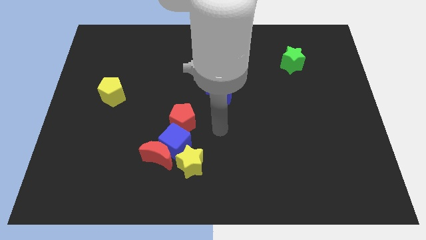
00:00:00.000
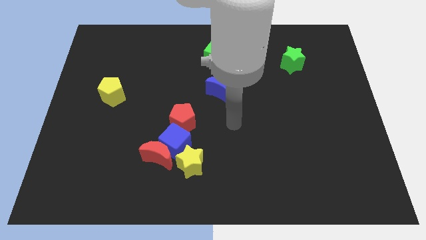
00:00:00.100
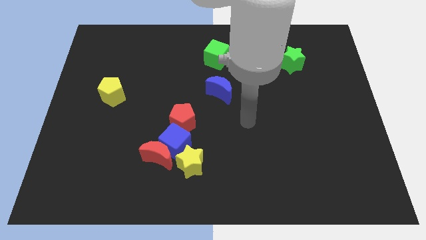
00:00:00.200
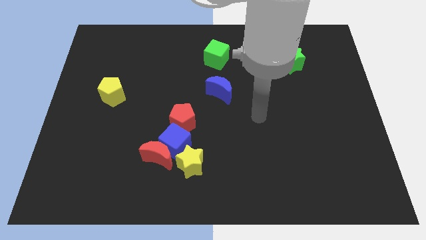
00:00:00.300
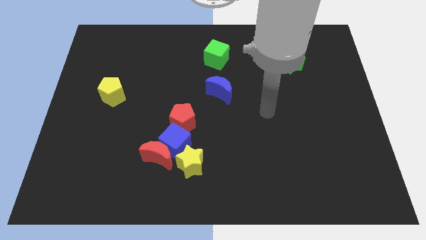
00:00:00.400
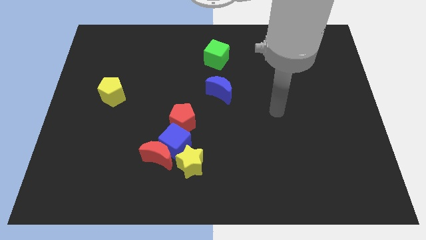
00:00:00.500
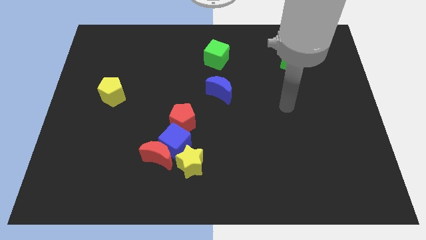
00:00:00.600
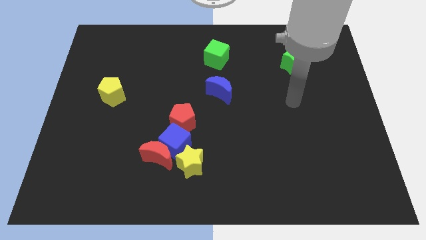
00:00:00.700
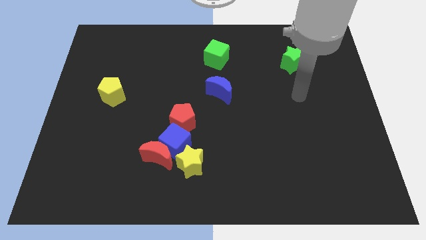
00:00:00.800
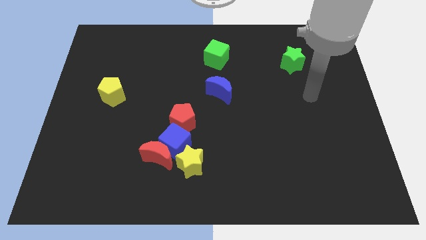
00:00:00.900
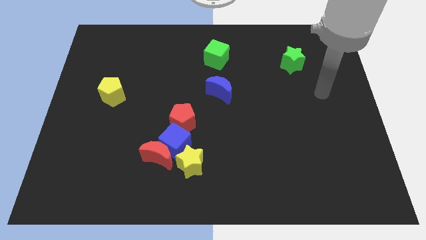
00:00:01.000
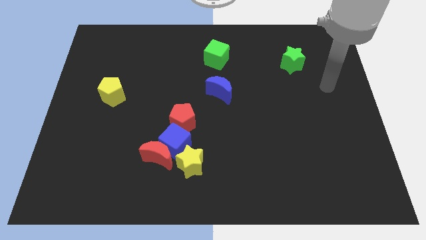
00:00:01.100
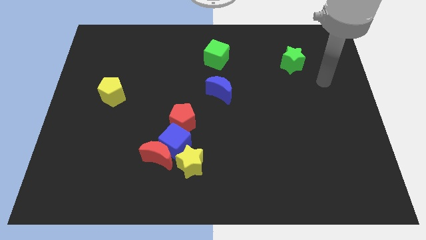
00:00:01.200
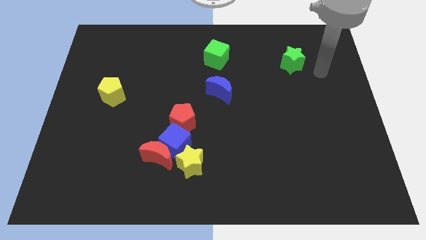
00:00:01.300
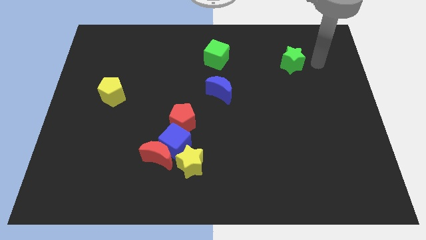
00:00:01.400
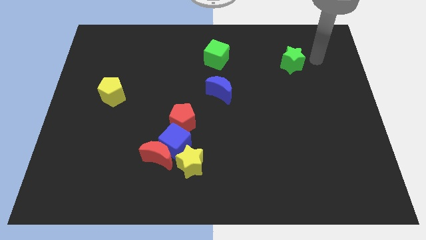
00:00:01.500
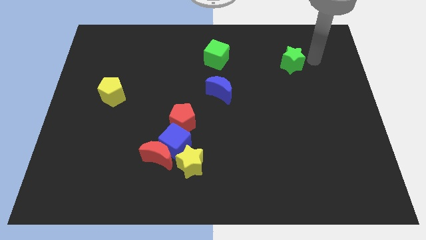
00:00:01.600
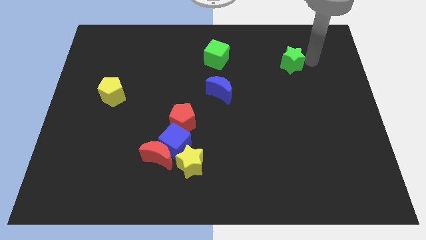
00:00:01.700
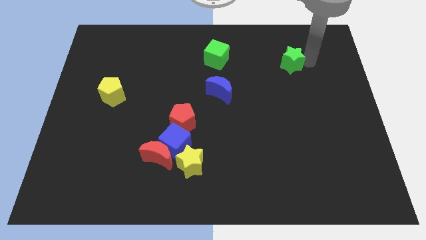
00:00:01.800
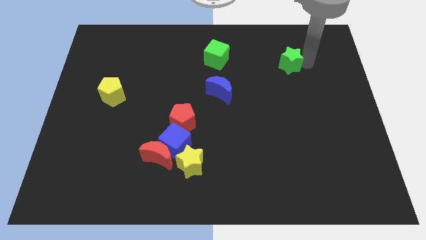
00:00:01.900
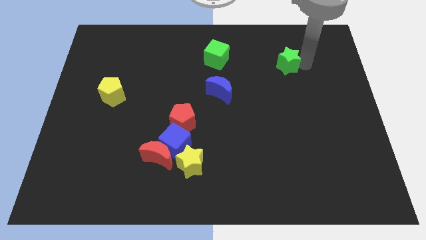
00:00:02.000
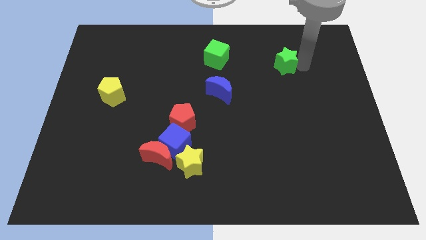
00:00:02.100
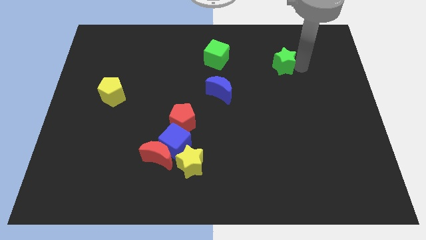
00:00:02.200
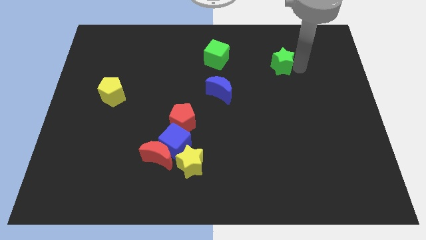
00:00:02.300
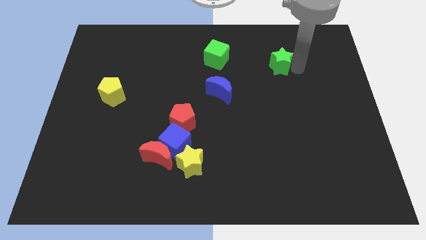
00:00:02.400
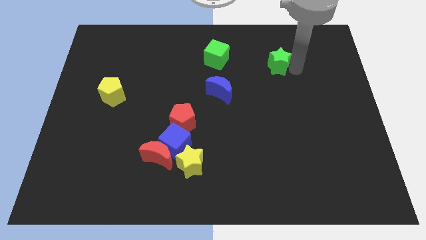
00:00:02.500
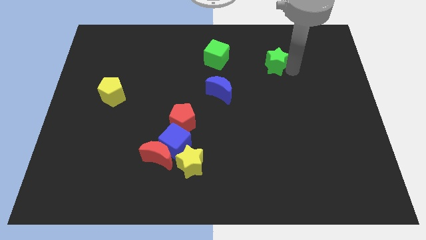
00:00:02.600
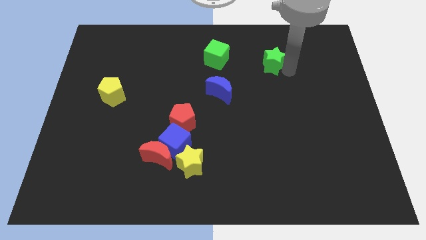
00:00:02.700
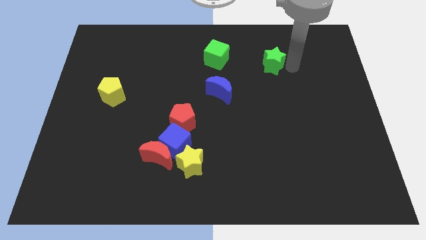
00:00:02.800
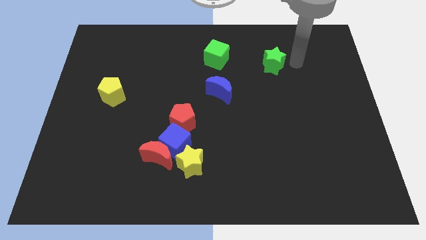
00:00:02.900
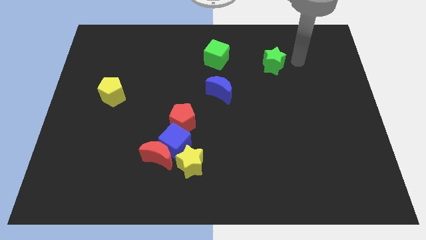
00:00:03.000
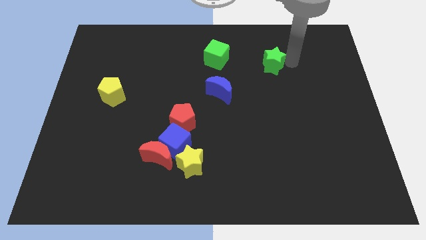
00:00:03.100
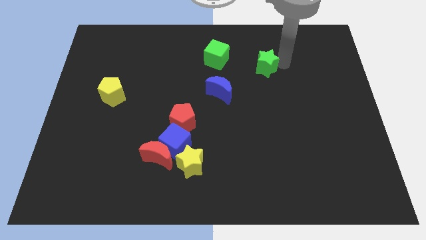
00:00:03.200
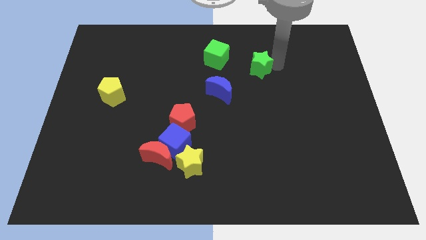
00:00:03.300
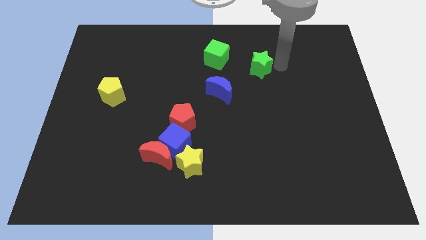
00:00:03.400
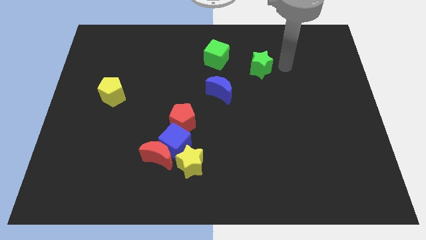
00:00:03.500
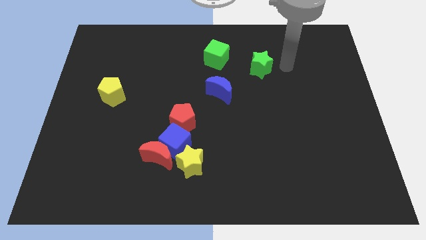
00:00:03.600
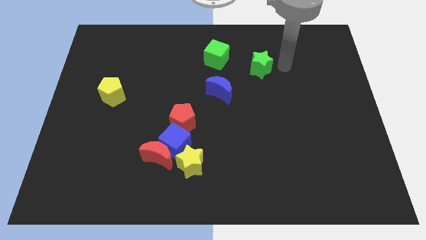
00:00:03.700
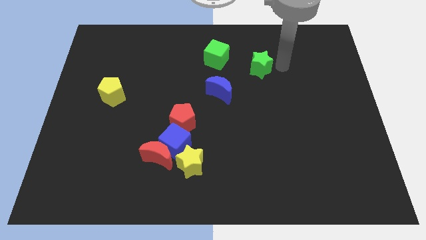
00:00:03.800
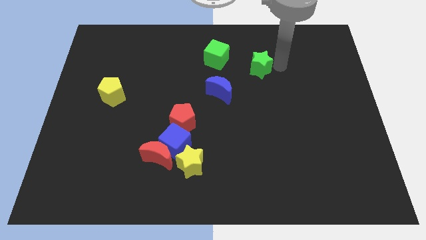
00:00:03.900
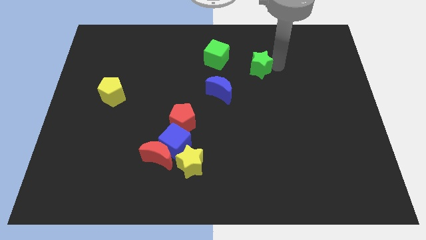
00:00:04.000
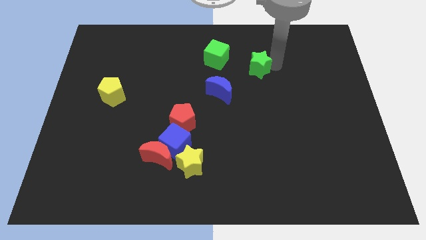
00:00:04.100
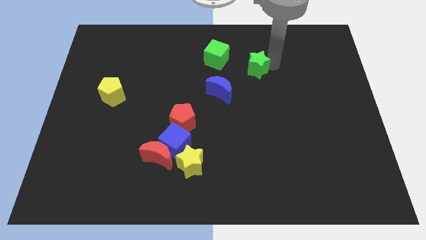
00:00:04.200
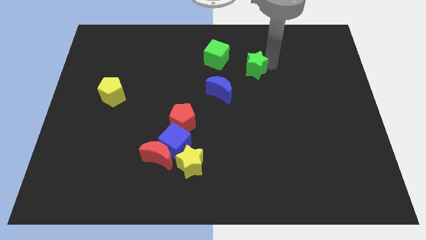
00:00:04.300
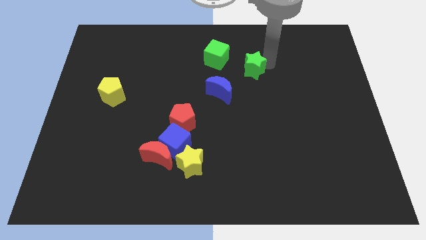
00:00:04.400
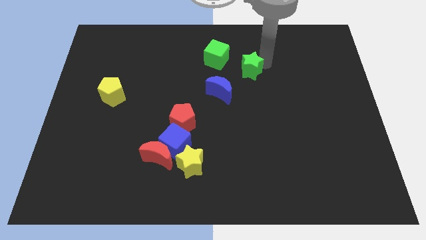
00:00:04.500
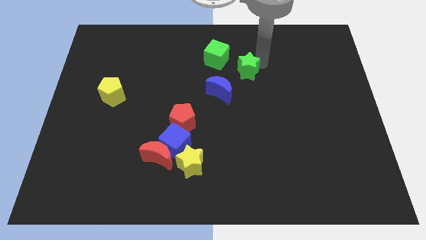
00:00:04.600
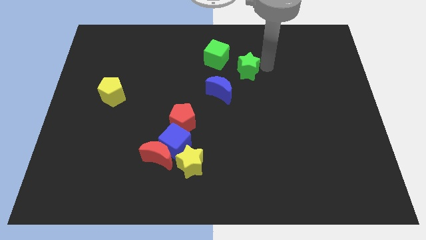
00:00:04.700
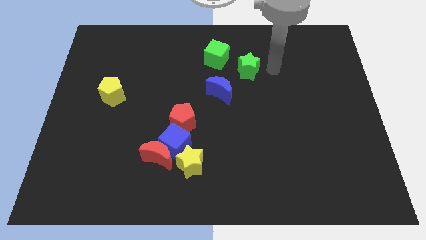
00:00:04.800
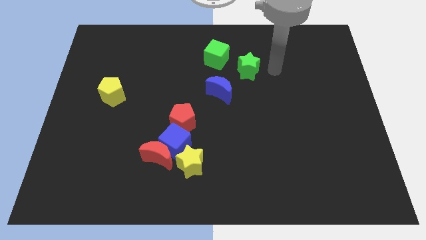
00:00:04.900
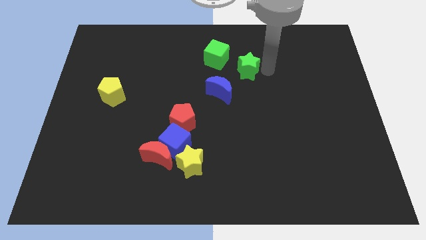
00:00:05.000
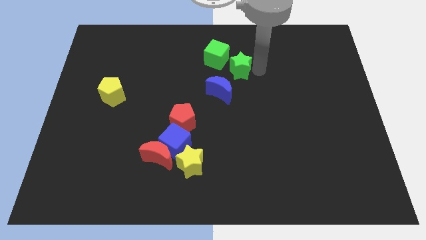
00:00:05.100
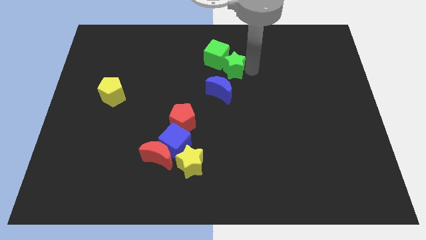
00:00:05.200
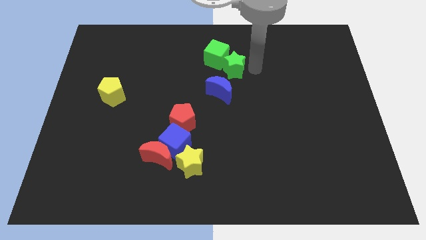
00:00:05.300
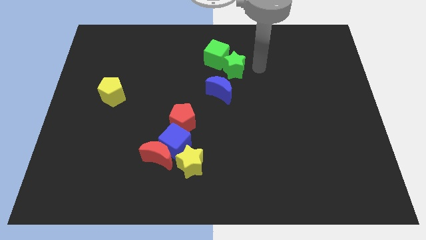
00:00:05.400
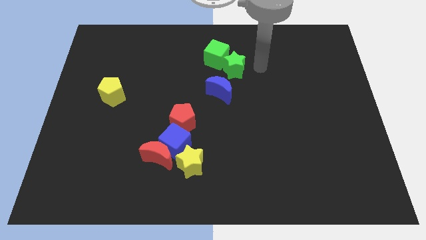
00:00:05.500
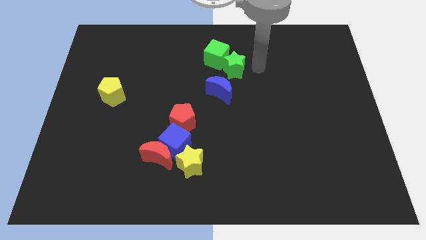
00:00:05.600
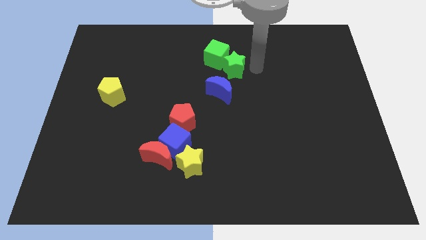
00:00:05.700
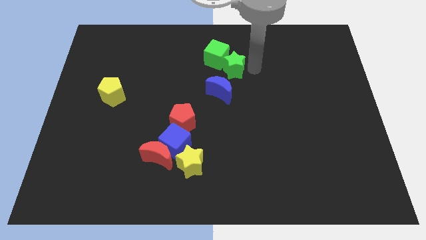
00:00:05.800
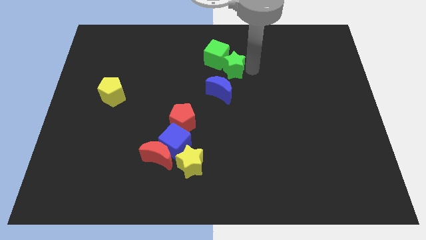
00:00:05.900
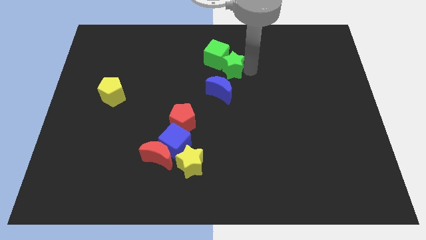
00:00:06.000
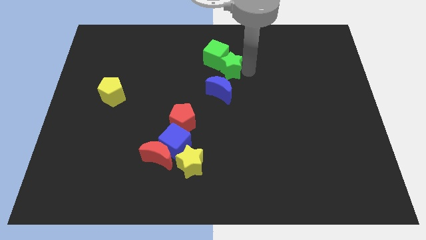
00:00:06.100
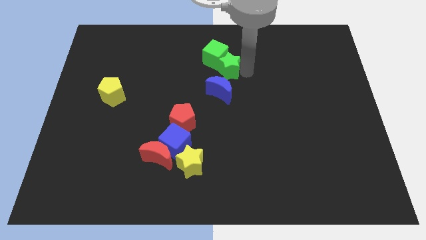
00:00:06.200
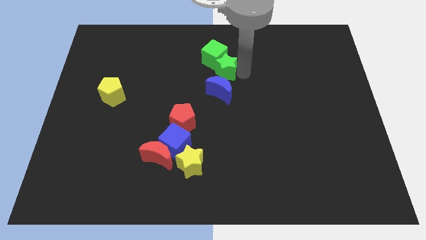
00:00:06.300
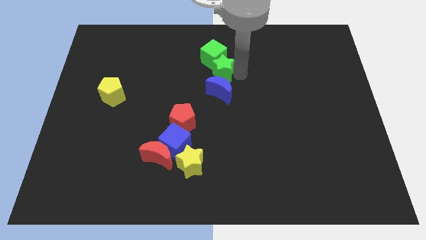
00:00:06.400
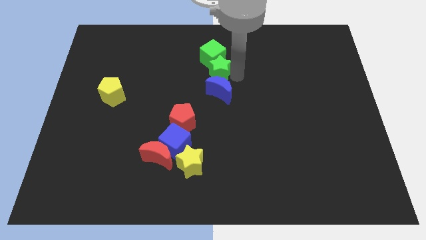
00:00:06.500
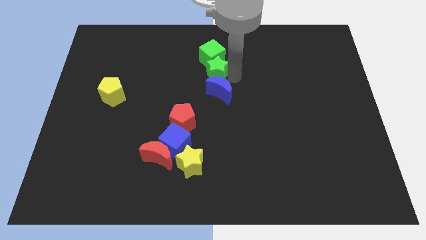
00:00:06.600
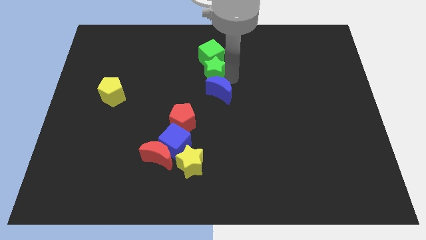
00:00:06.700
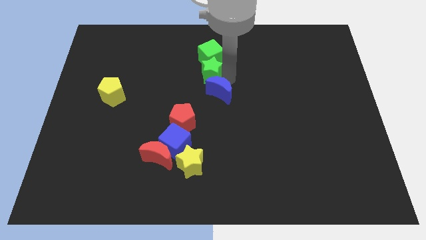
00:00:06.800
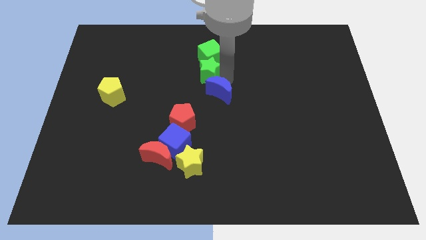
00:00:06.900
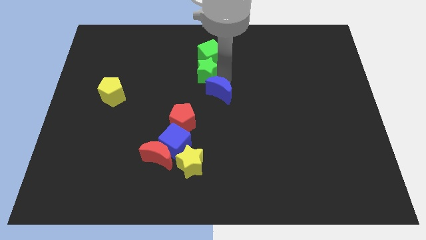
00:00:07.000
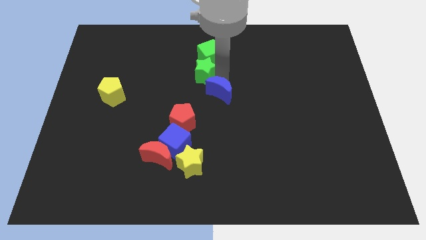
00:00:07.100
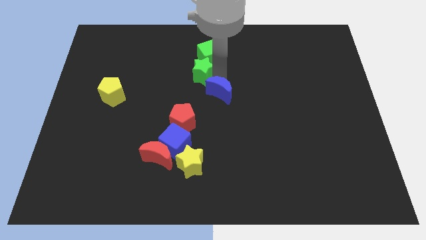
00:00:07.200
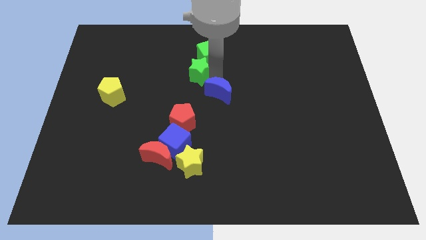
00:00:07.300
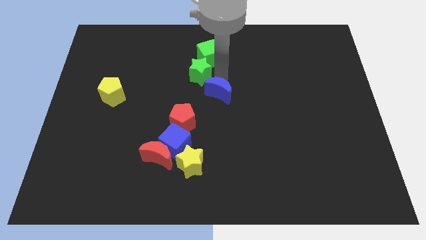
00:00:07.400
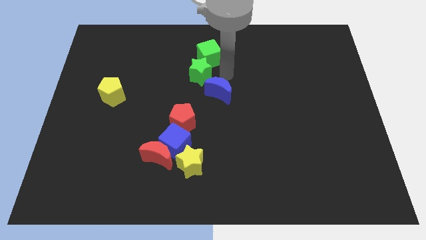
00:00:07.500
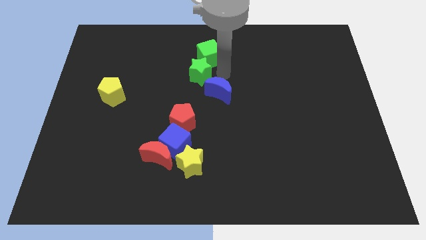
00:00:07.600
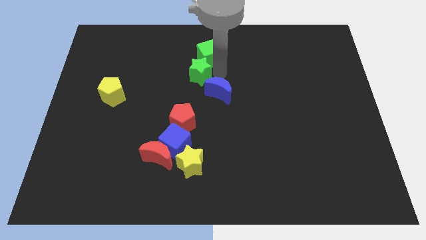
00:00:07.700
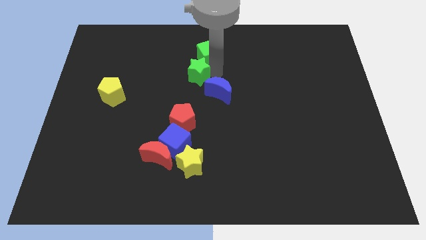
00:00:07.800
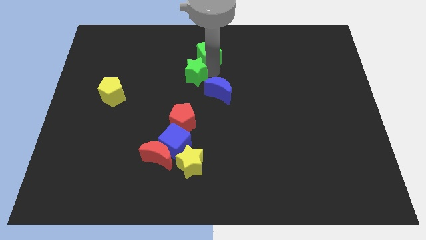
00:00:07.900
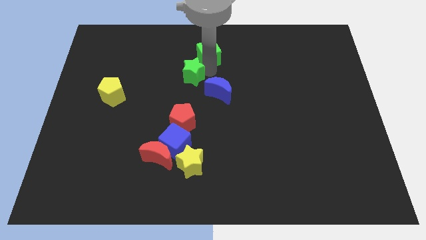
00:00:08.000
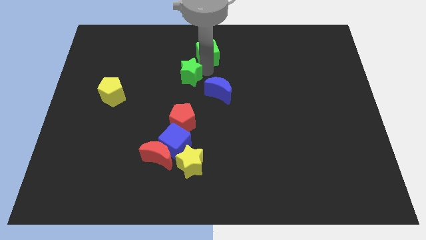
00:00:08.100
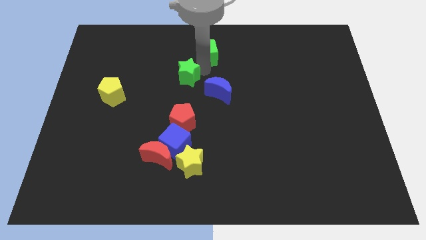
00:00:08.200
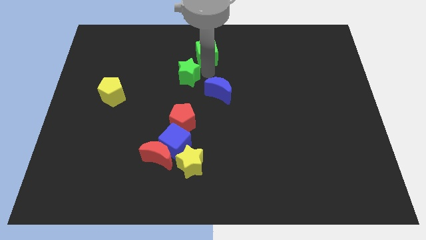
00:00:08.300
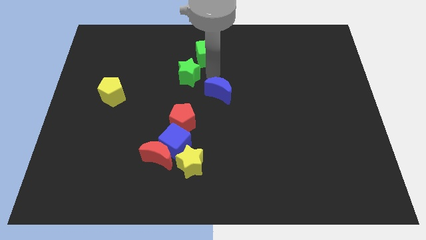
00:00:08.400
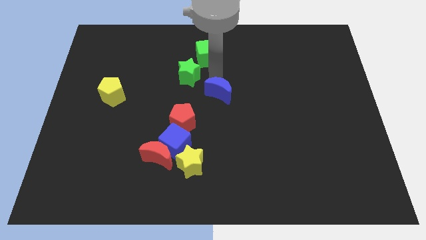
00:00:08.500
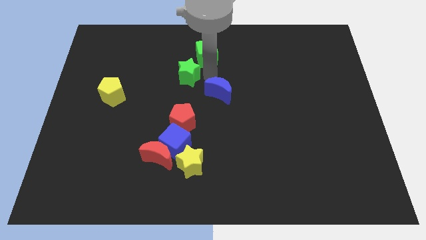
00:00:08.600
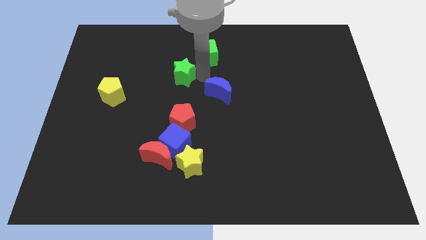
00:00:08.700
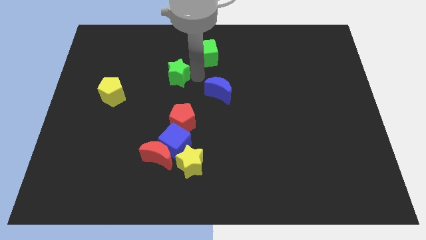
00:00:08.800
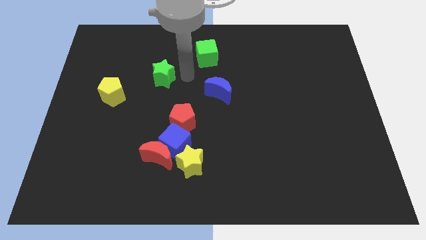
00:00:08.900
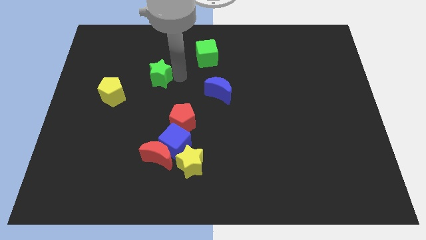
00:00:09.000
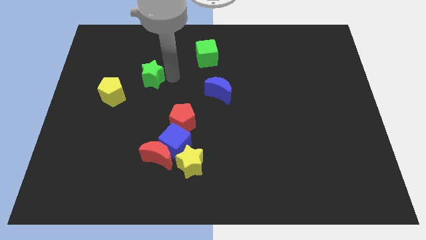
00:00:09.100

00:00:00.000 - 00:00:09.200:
move the green star to the top right side of the yellow pentagon
